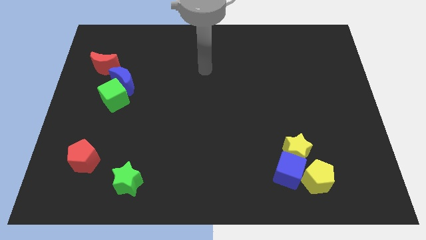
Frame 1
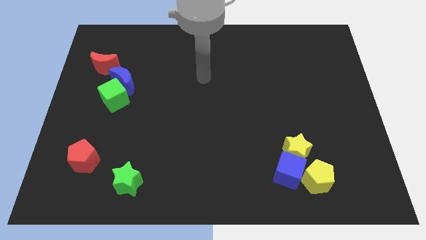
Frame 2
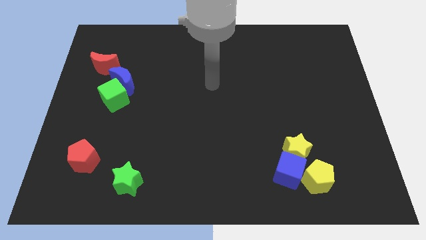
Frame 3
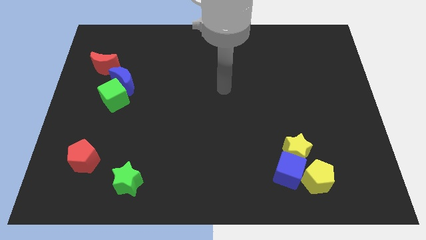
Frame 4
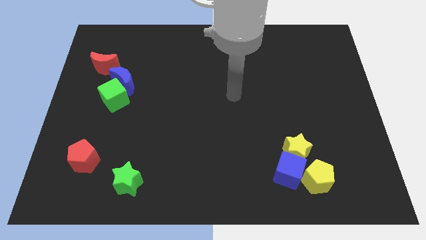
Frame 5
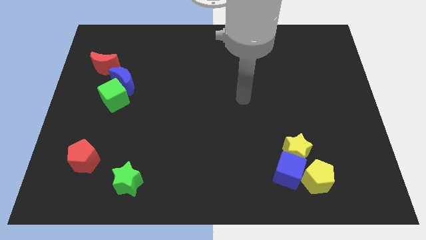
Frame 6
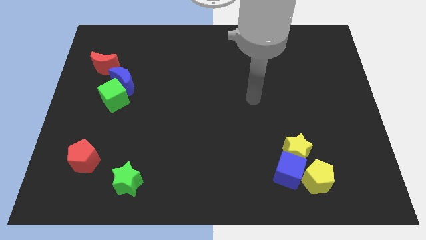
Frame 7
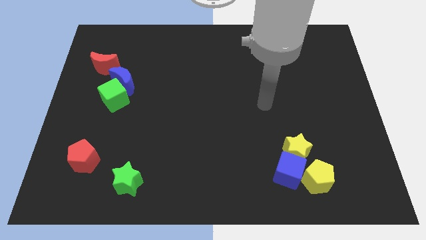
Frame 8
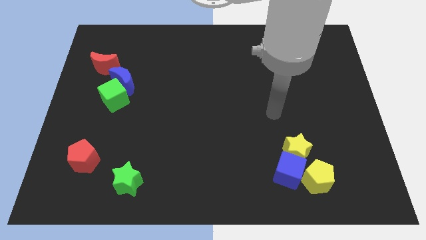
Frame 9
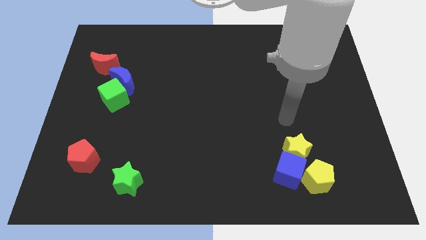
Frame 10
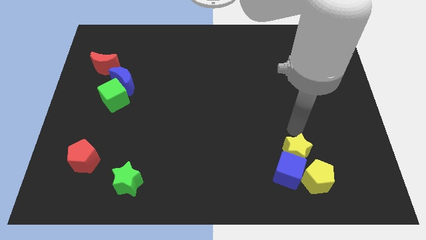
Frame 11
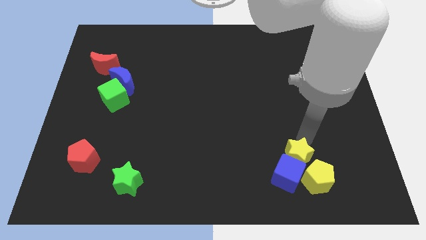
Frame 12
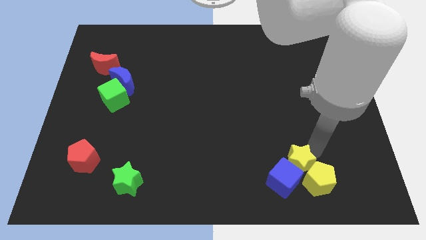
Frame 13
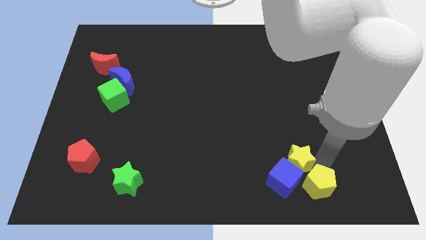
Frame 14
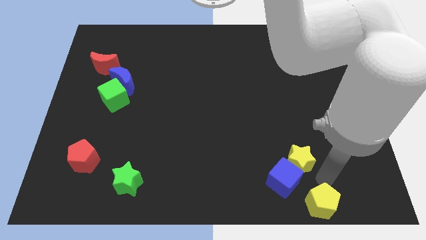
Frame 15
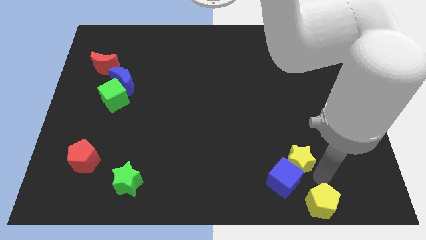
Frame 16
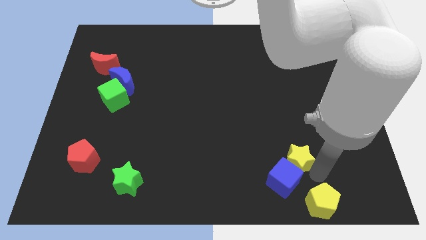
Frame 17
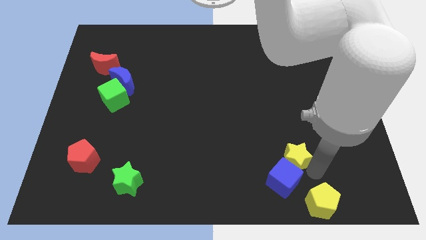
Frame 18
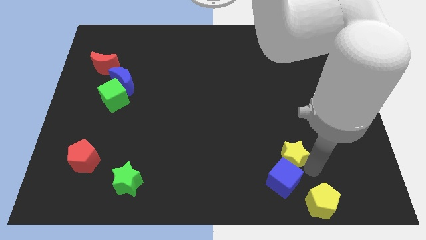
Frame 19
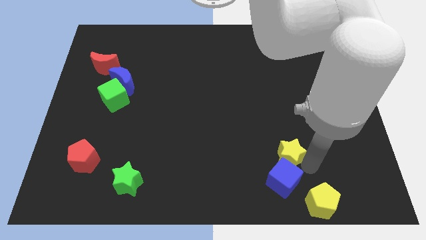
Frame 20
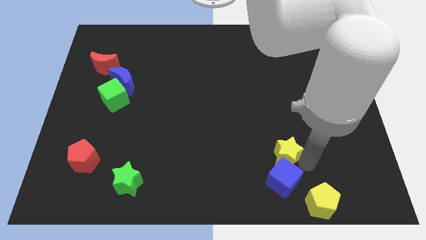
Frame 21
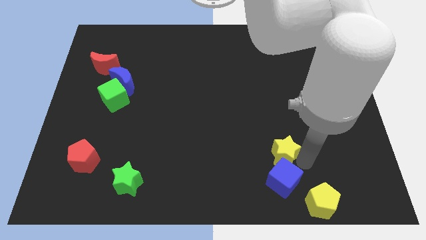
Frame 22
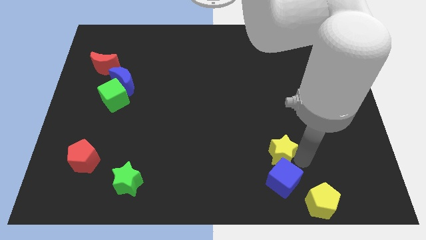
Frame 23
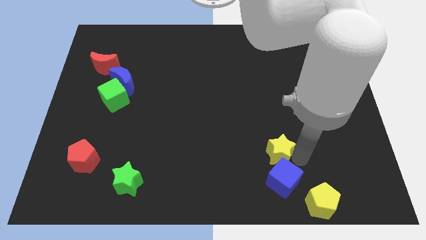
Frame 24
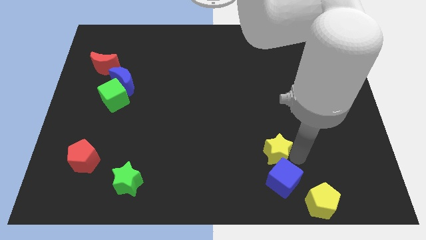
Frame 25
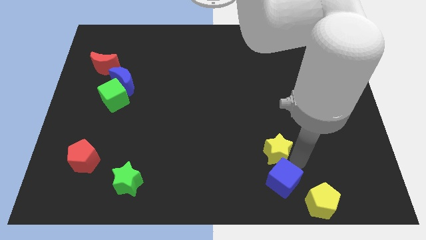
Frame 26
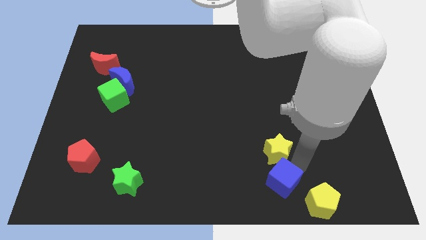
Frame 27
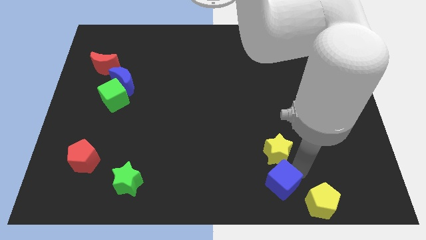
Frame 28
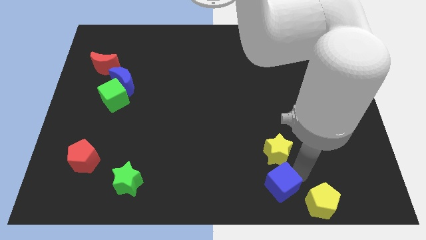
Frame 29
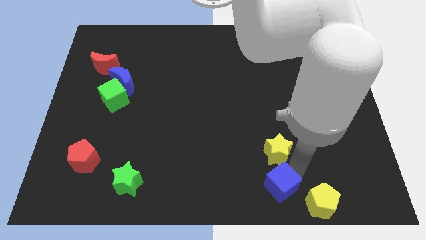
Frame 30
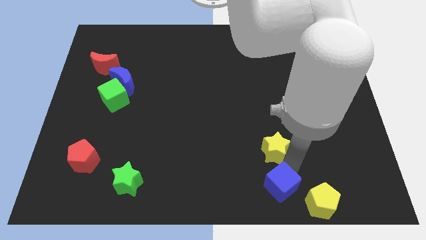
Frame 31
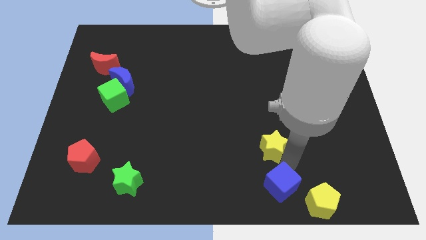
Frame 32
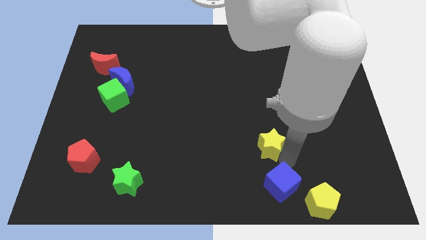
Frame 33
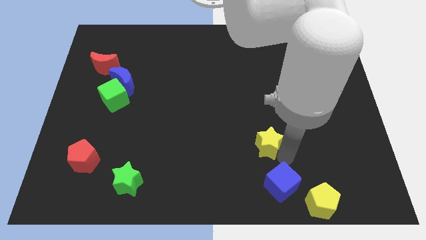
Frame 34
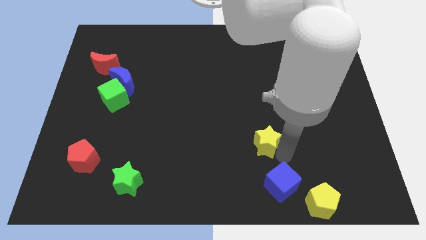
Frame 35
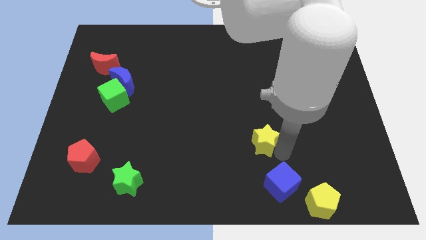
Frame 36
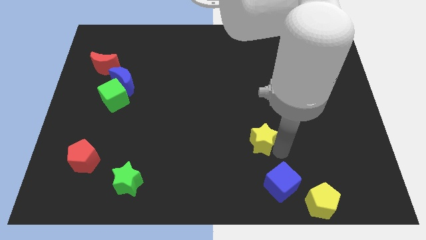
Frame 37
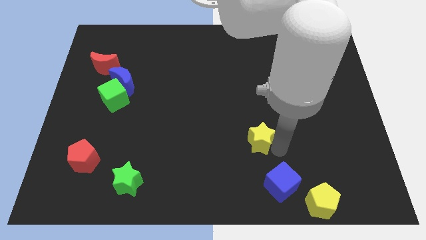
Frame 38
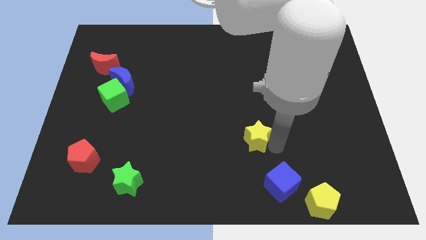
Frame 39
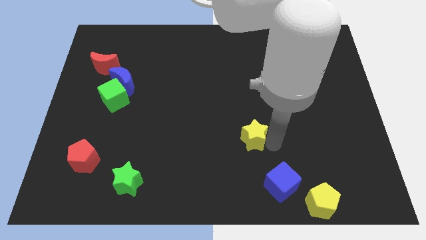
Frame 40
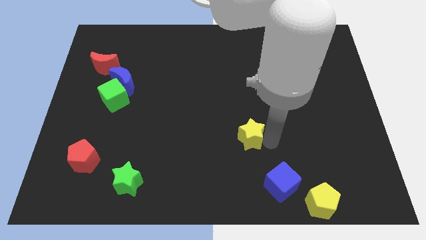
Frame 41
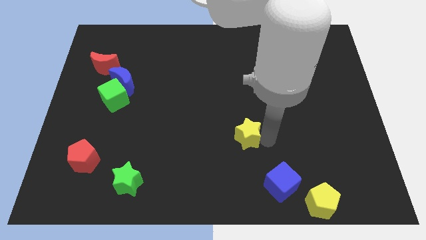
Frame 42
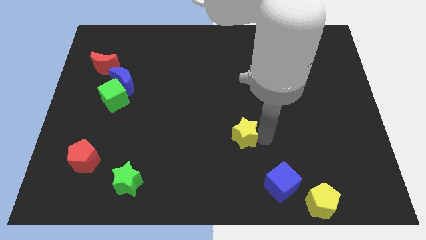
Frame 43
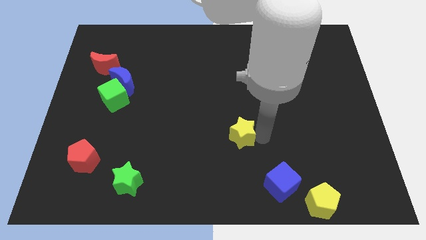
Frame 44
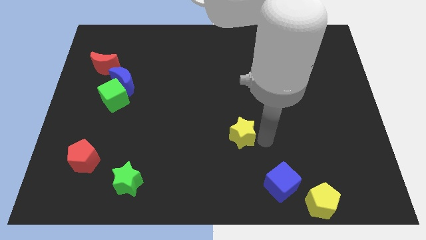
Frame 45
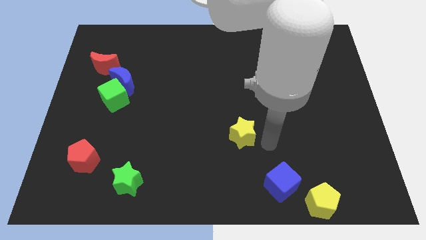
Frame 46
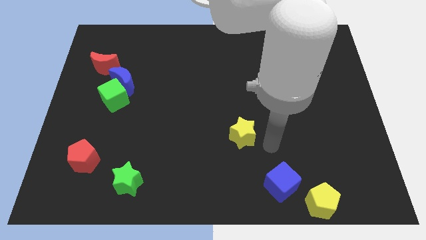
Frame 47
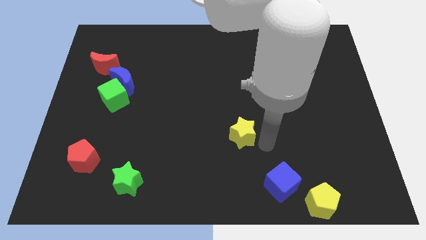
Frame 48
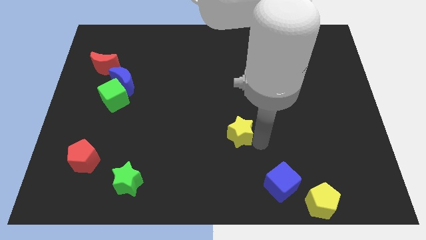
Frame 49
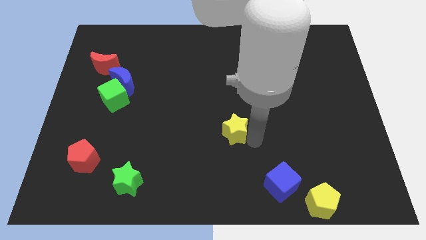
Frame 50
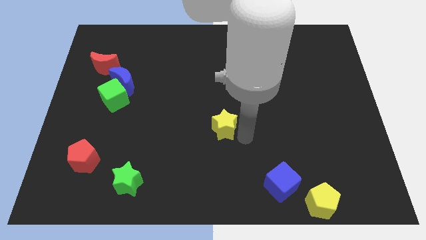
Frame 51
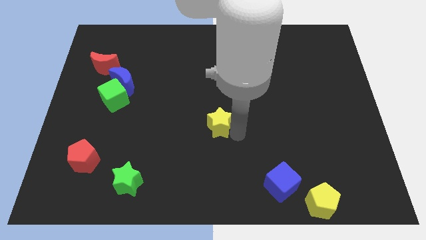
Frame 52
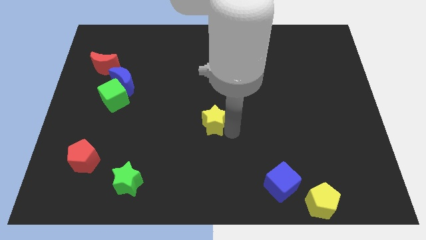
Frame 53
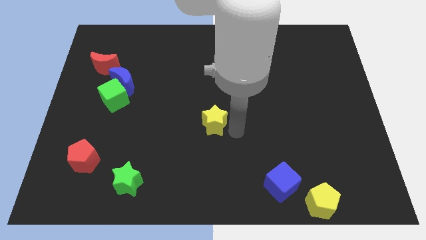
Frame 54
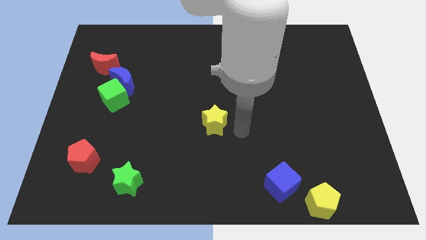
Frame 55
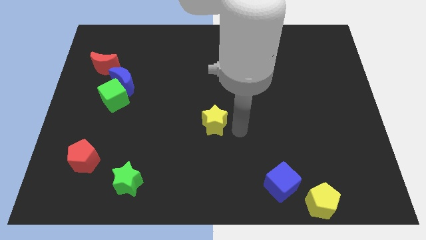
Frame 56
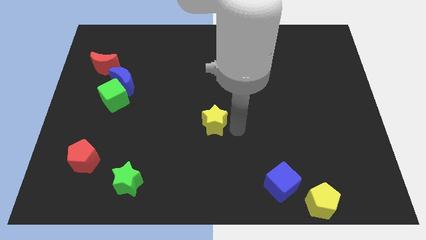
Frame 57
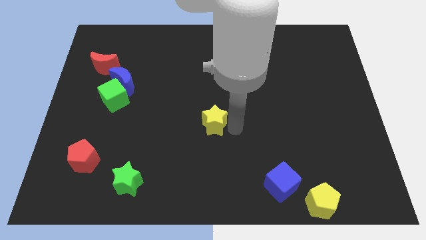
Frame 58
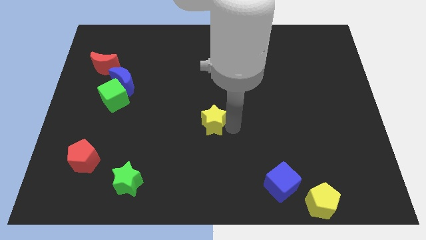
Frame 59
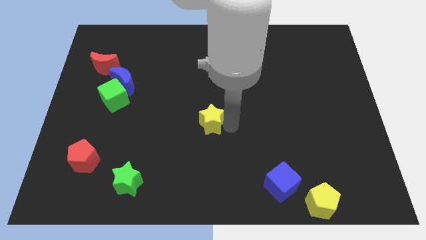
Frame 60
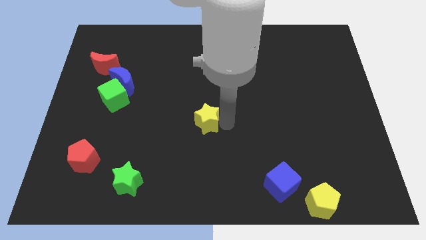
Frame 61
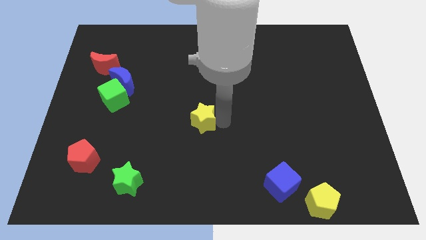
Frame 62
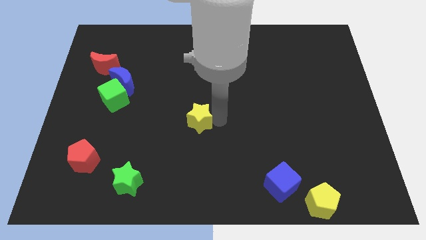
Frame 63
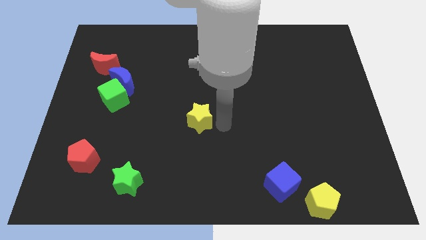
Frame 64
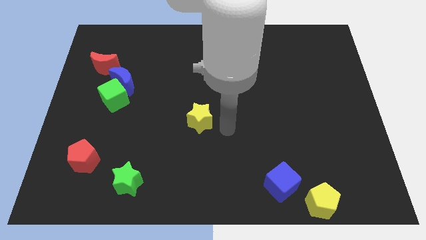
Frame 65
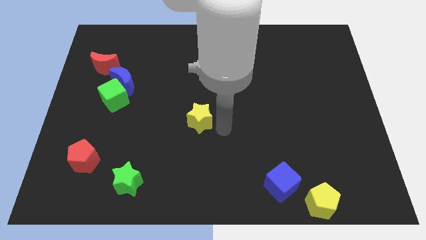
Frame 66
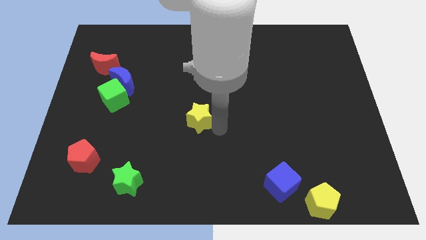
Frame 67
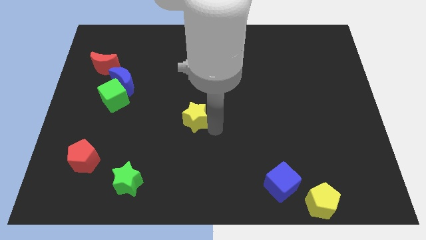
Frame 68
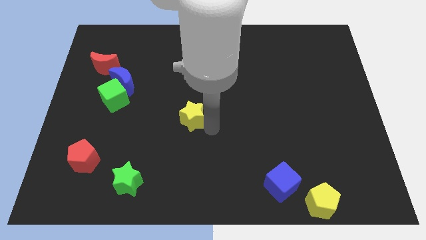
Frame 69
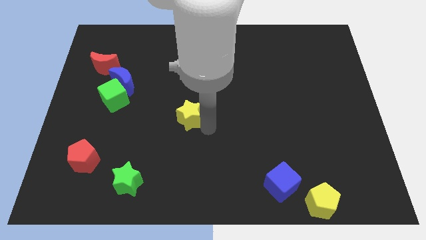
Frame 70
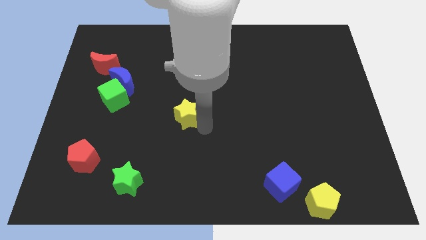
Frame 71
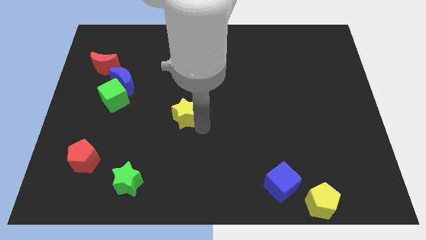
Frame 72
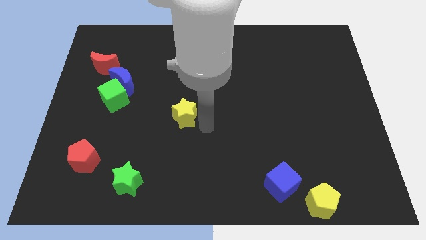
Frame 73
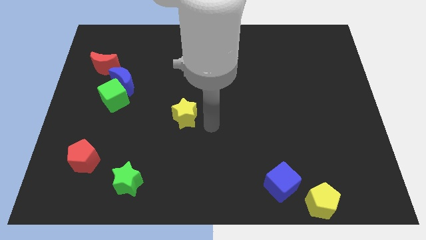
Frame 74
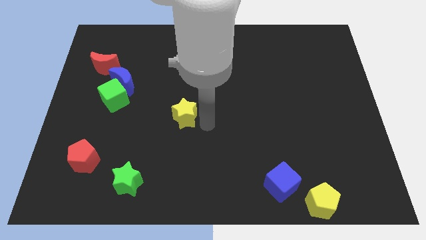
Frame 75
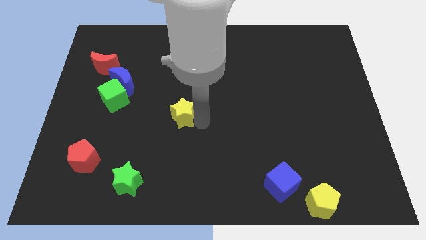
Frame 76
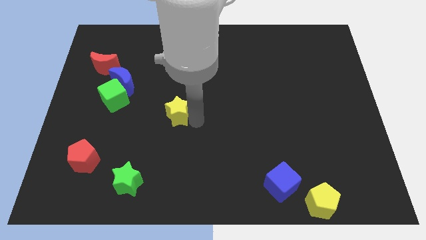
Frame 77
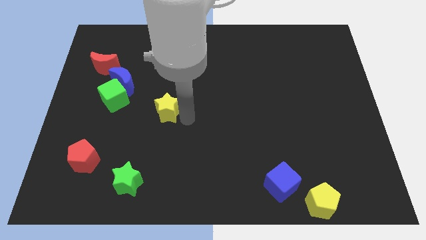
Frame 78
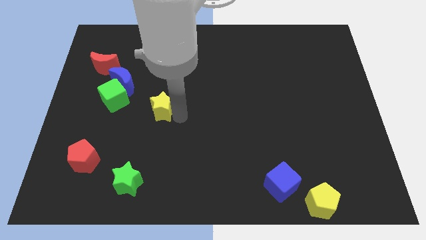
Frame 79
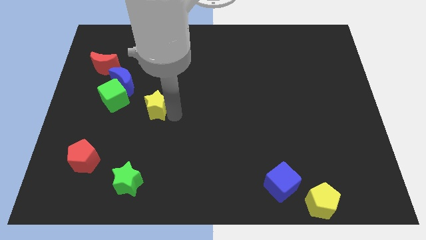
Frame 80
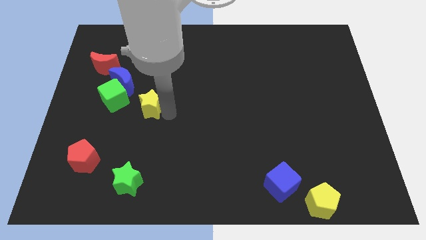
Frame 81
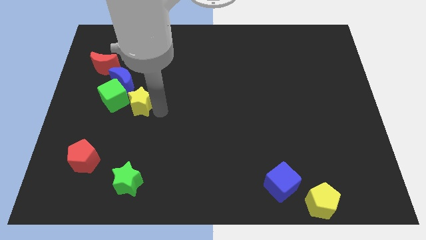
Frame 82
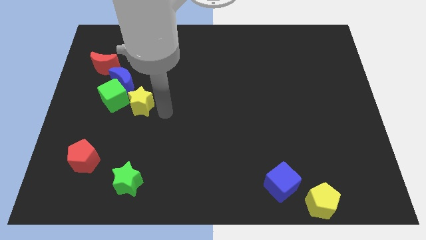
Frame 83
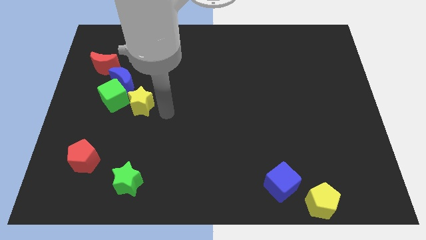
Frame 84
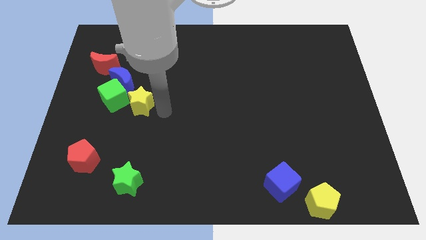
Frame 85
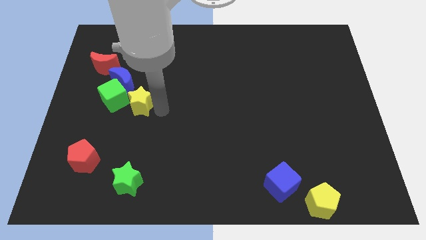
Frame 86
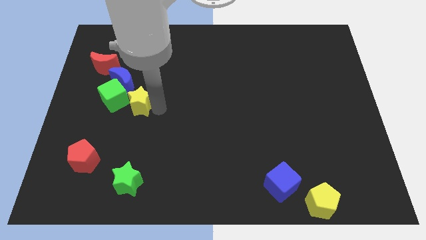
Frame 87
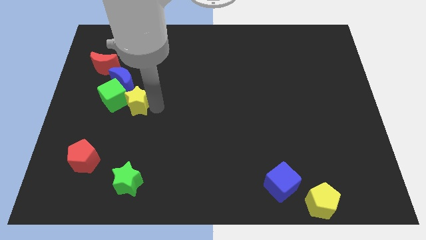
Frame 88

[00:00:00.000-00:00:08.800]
put the yellow star next to the green cube
